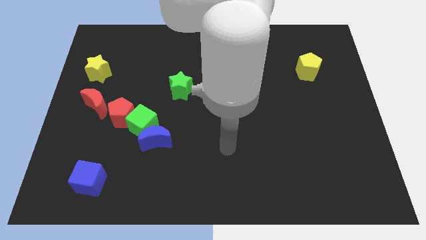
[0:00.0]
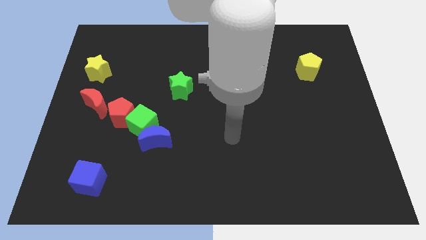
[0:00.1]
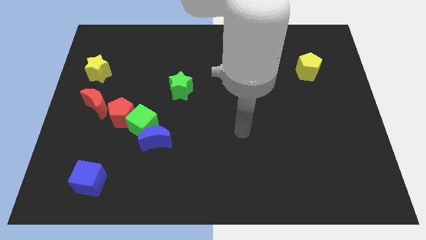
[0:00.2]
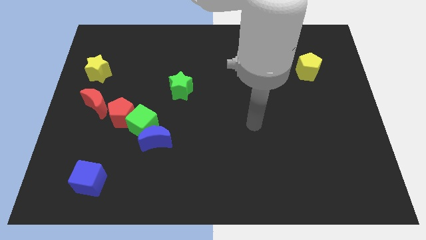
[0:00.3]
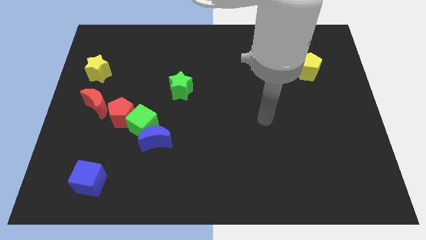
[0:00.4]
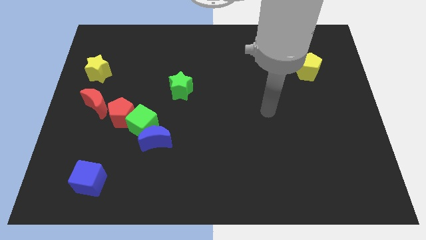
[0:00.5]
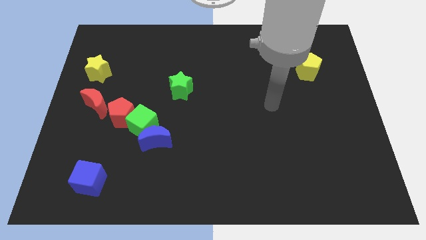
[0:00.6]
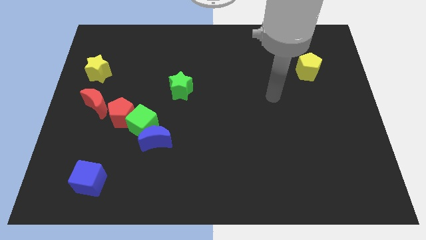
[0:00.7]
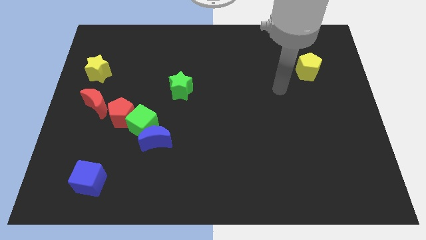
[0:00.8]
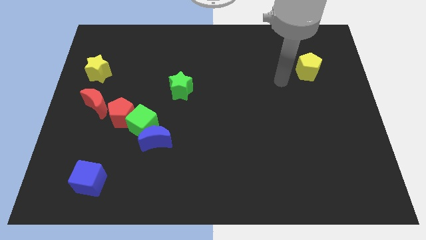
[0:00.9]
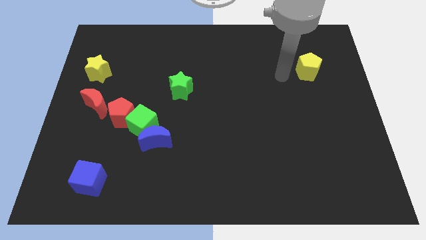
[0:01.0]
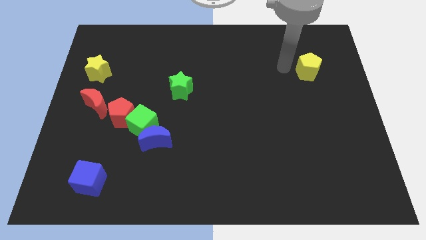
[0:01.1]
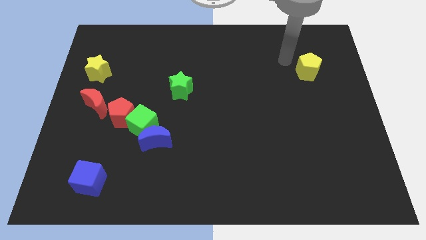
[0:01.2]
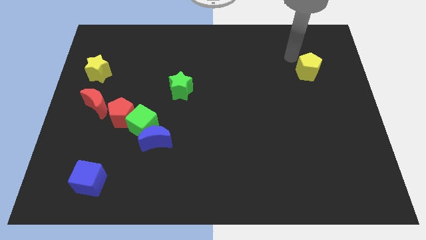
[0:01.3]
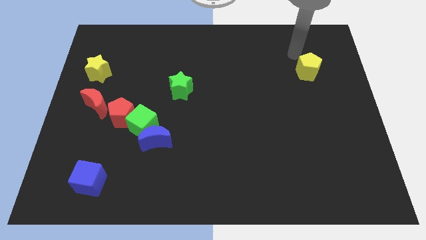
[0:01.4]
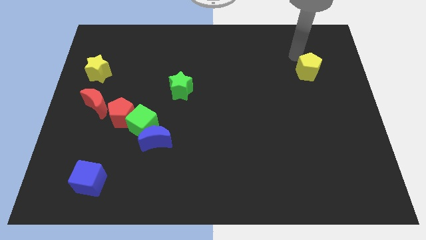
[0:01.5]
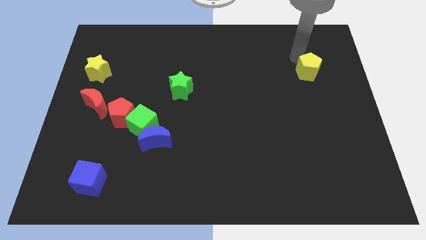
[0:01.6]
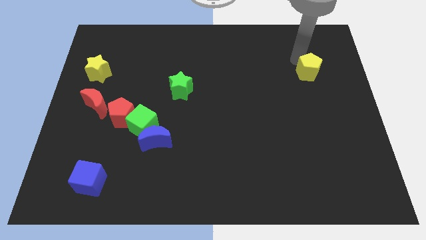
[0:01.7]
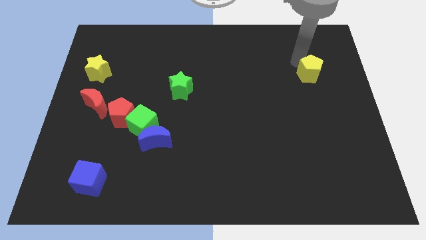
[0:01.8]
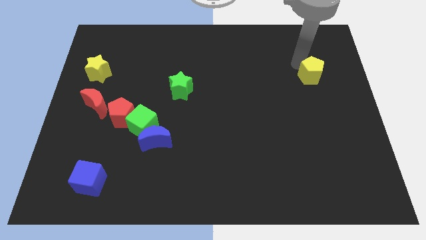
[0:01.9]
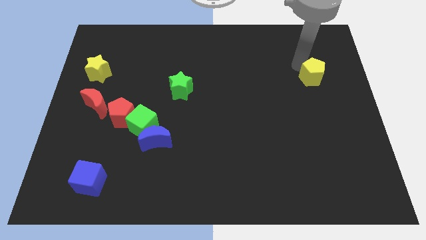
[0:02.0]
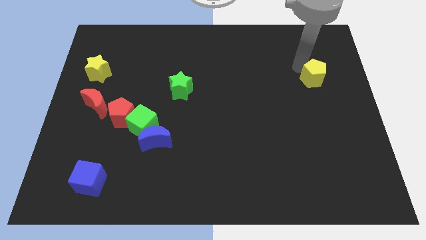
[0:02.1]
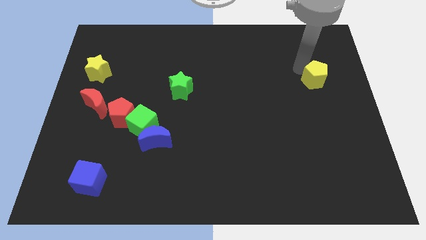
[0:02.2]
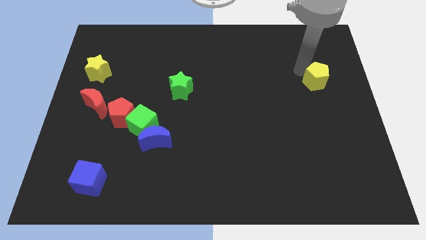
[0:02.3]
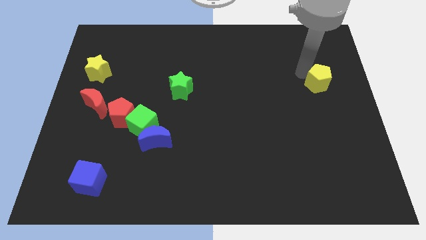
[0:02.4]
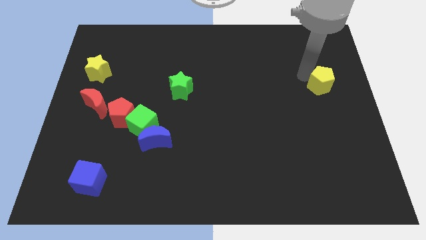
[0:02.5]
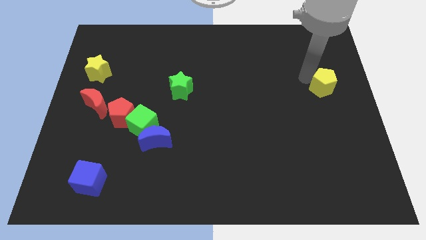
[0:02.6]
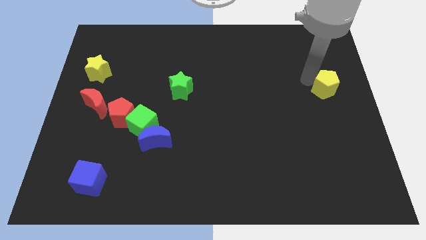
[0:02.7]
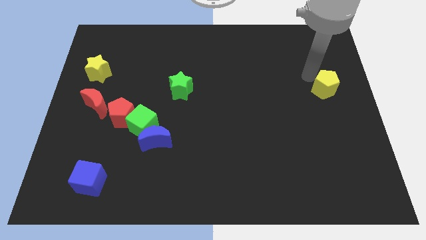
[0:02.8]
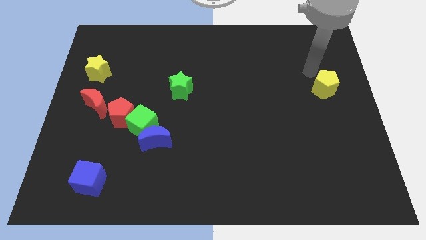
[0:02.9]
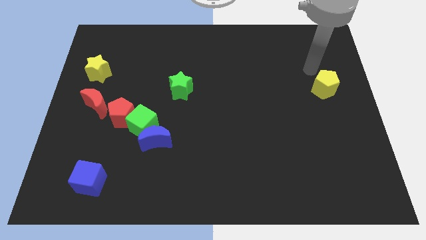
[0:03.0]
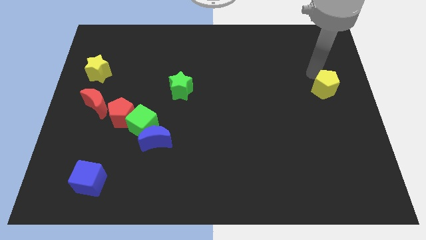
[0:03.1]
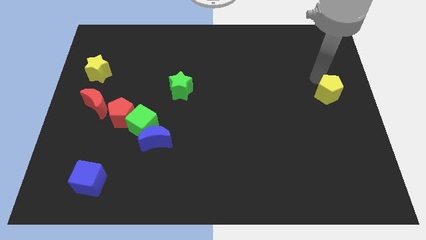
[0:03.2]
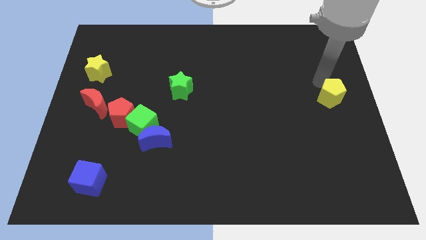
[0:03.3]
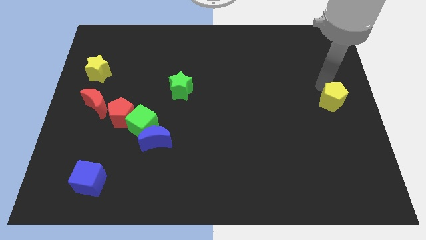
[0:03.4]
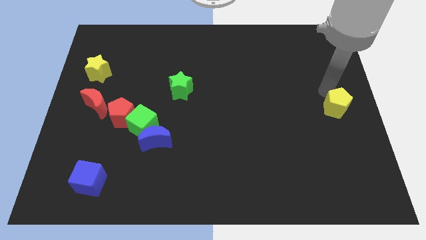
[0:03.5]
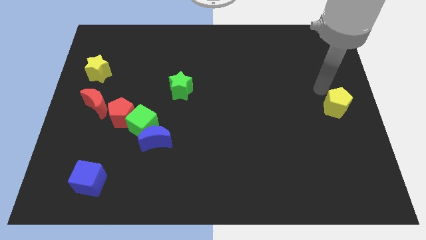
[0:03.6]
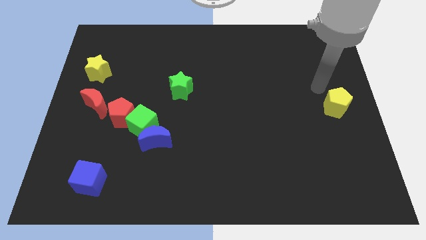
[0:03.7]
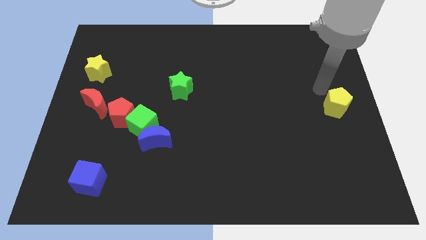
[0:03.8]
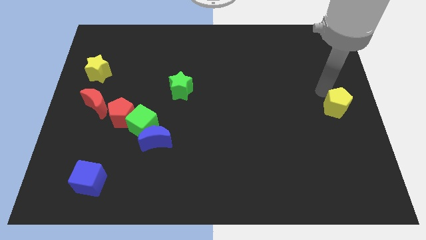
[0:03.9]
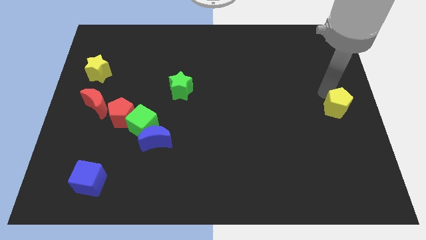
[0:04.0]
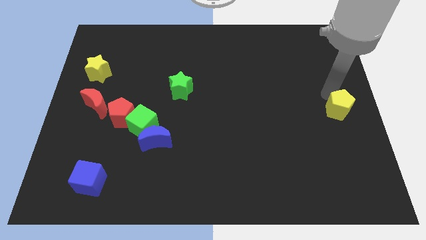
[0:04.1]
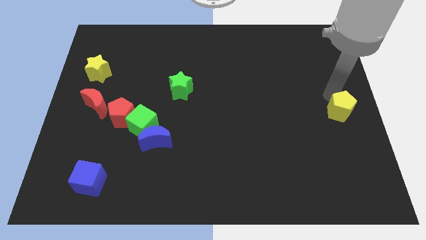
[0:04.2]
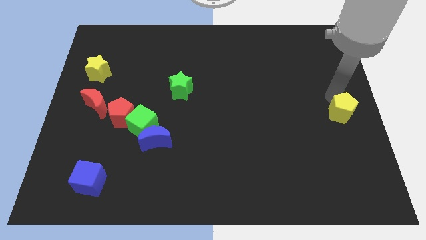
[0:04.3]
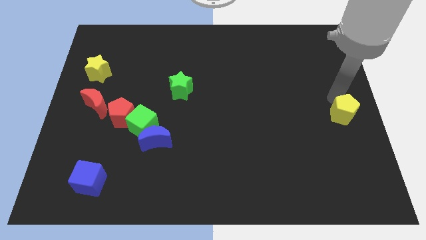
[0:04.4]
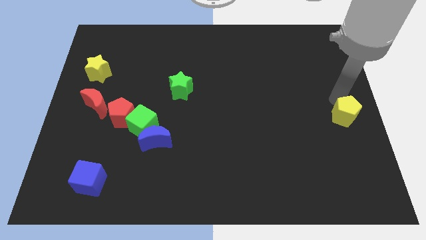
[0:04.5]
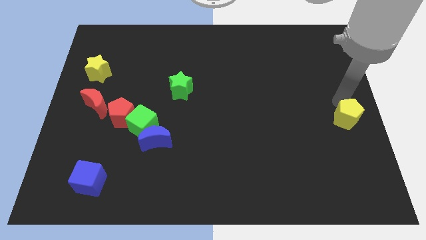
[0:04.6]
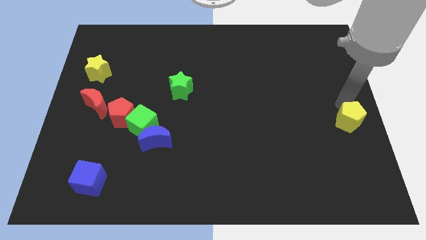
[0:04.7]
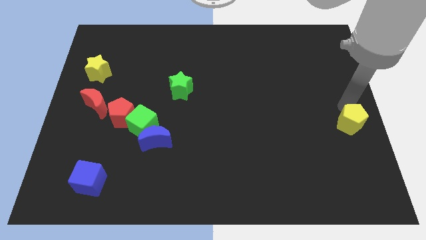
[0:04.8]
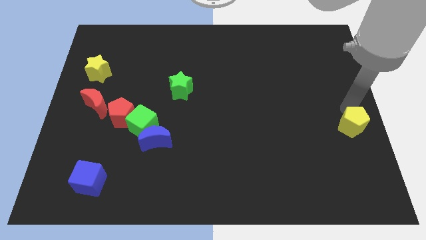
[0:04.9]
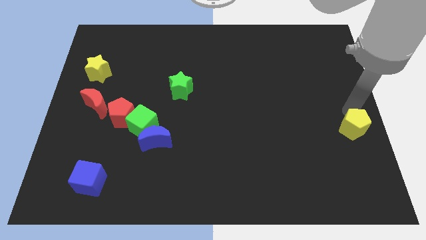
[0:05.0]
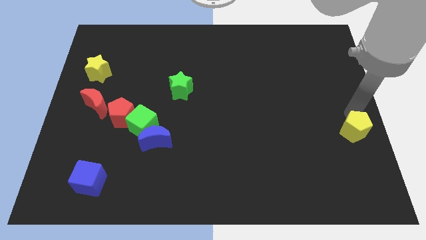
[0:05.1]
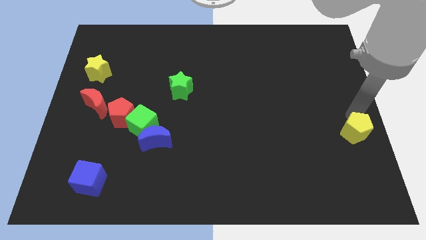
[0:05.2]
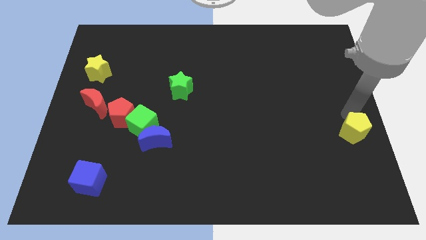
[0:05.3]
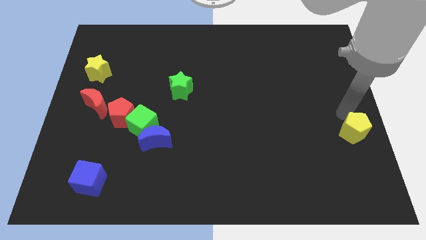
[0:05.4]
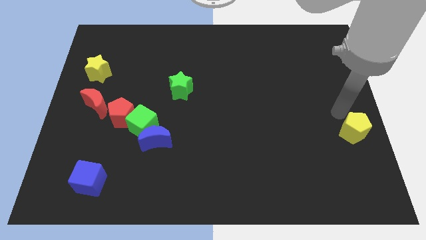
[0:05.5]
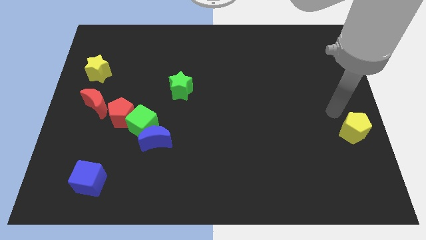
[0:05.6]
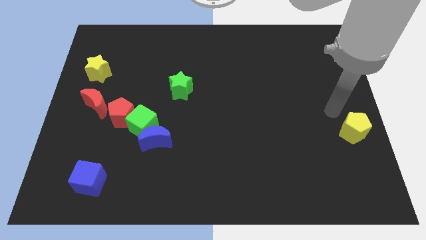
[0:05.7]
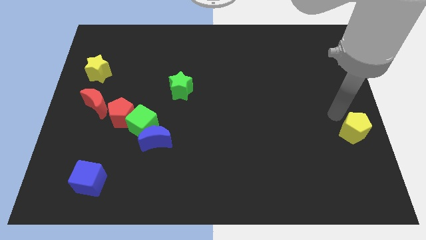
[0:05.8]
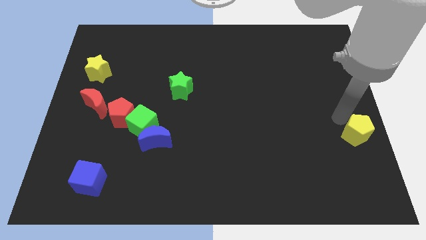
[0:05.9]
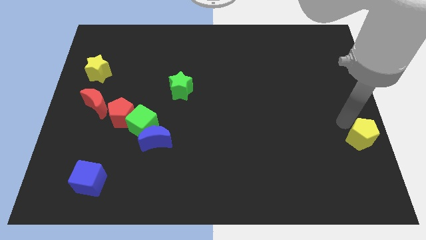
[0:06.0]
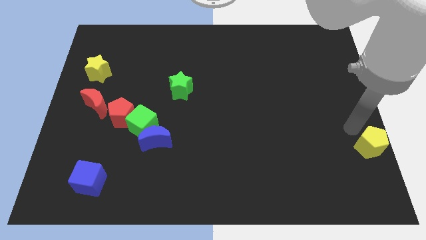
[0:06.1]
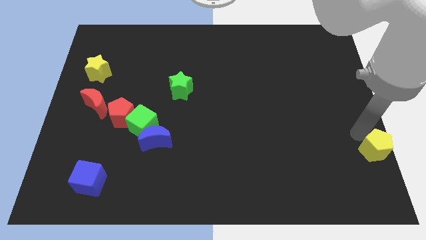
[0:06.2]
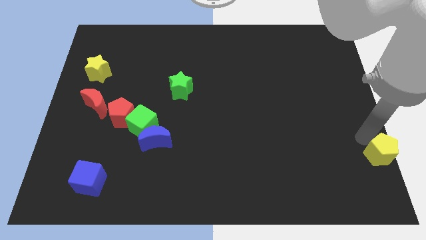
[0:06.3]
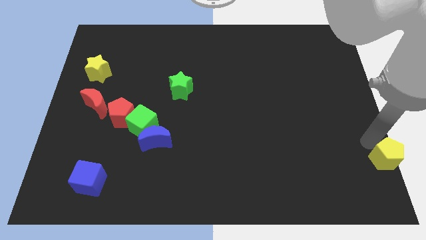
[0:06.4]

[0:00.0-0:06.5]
push the yellow pentagon to the bottom right corner

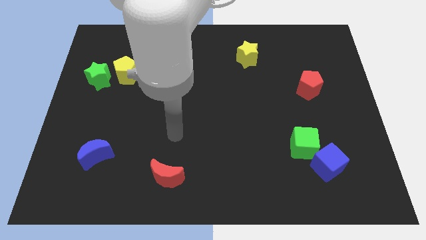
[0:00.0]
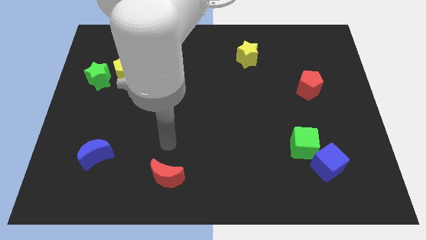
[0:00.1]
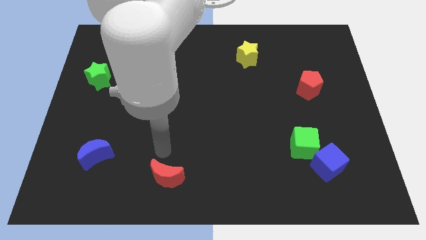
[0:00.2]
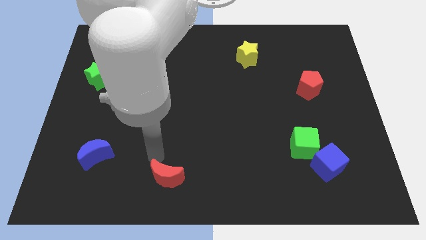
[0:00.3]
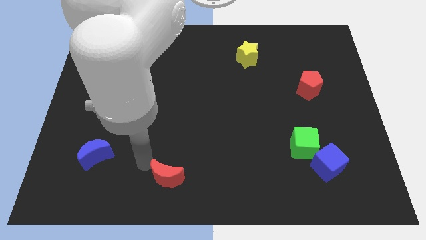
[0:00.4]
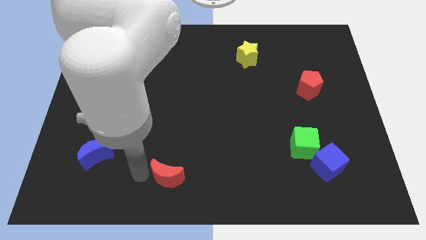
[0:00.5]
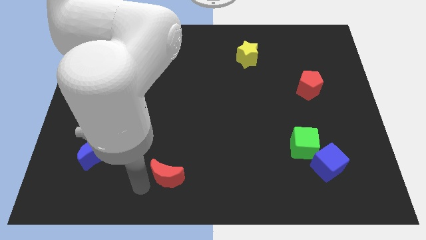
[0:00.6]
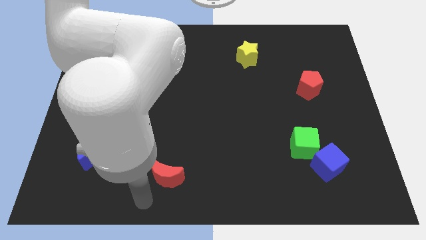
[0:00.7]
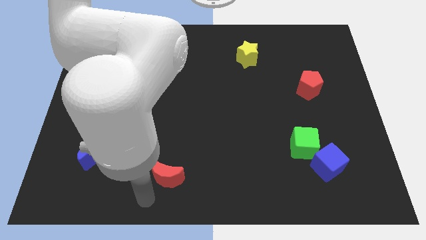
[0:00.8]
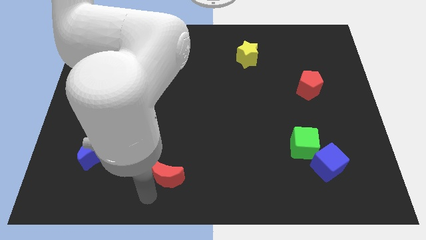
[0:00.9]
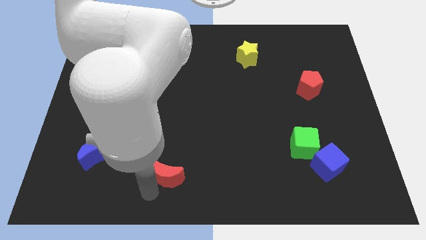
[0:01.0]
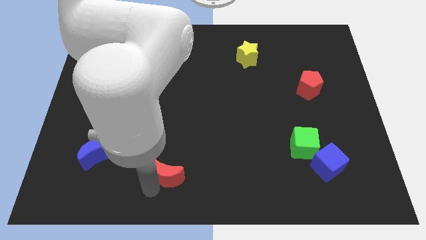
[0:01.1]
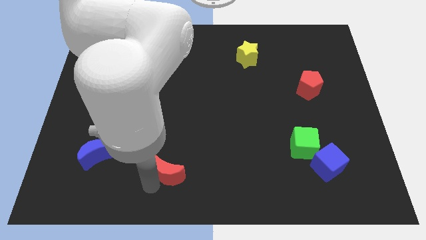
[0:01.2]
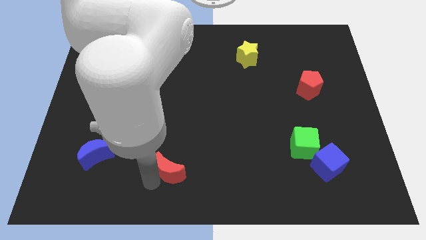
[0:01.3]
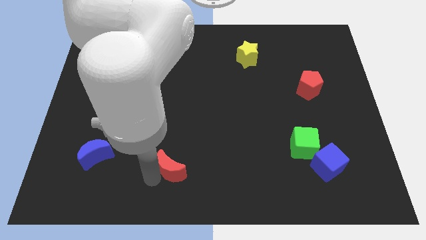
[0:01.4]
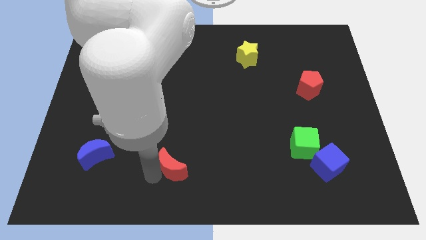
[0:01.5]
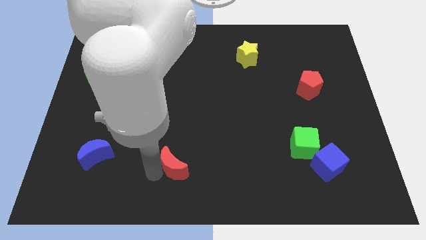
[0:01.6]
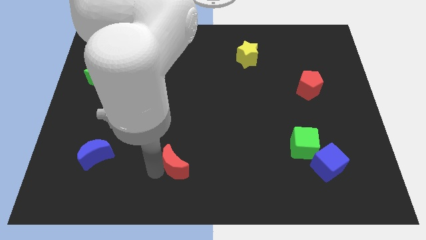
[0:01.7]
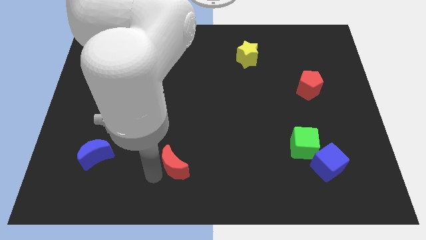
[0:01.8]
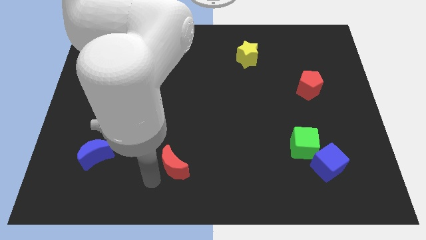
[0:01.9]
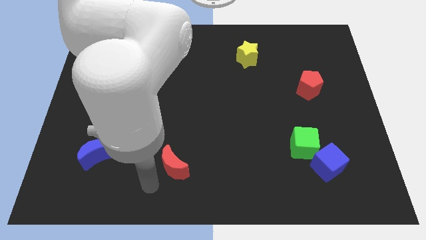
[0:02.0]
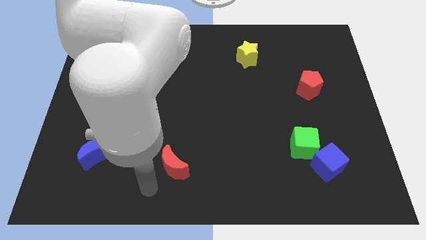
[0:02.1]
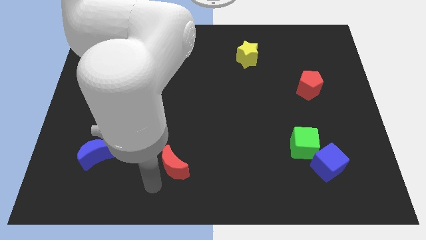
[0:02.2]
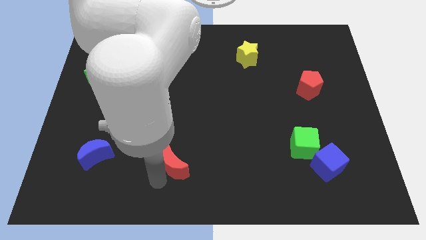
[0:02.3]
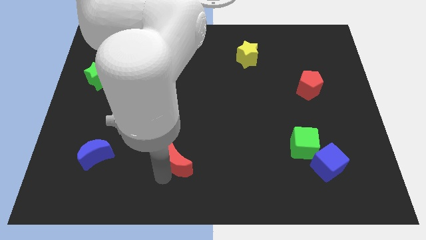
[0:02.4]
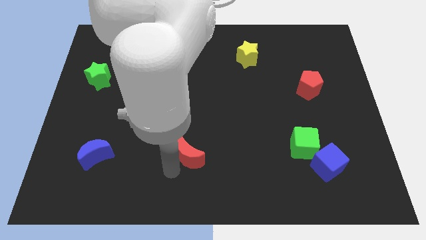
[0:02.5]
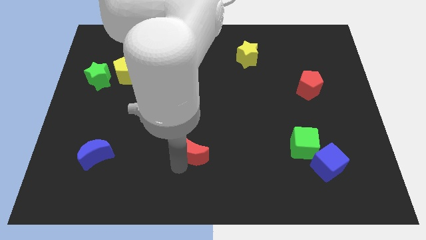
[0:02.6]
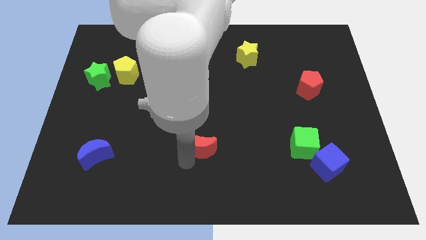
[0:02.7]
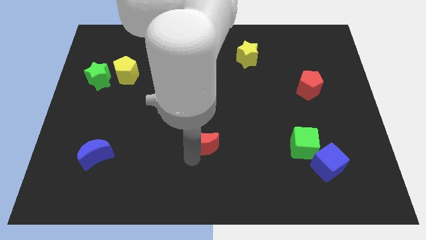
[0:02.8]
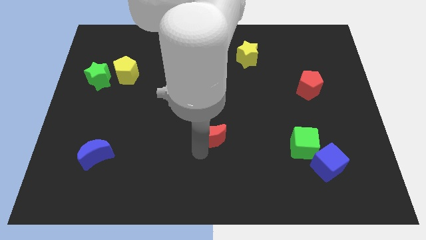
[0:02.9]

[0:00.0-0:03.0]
put the red moon to the middle of the board
